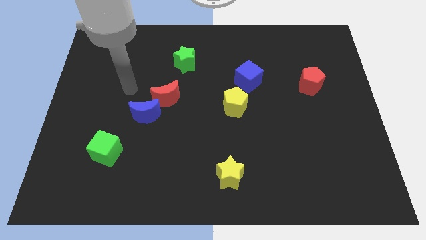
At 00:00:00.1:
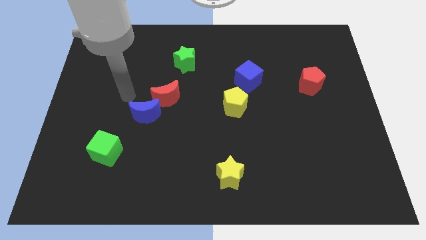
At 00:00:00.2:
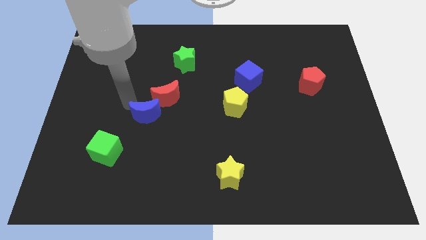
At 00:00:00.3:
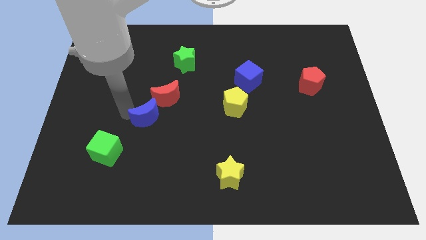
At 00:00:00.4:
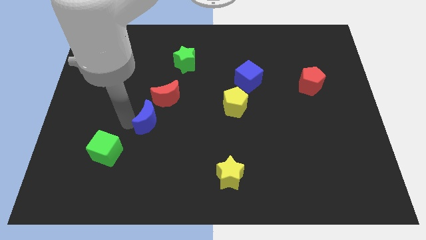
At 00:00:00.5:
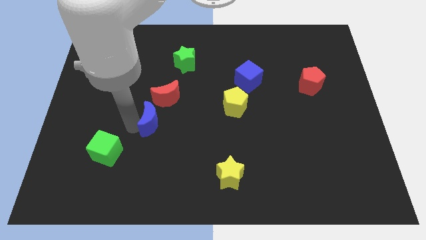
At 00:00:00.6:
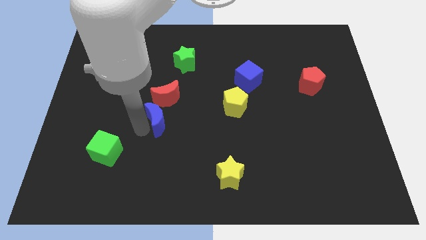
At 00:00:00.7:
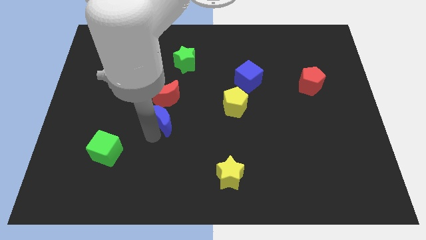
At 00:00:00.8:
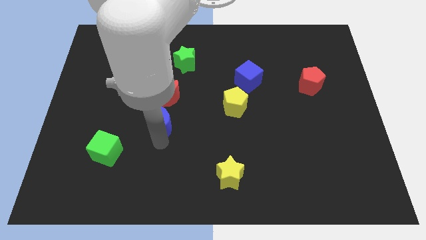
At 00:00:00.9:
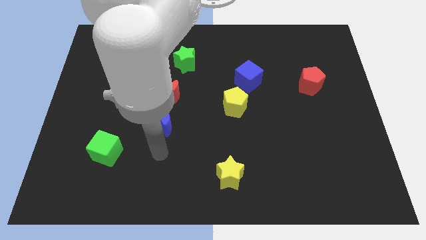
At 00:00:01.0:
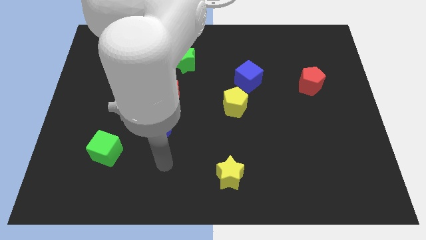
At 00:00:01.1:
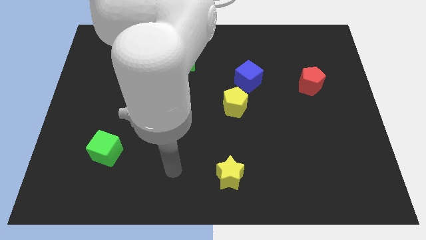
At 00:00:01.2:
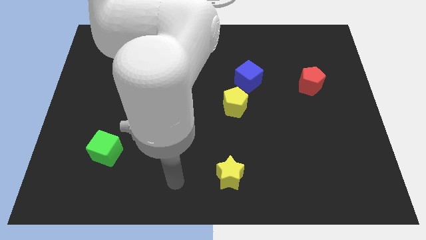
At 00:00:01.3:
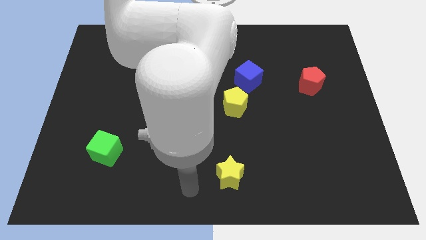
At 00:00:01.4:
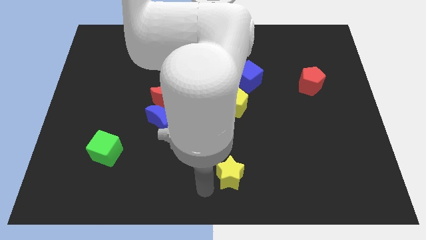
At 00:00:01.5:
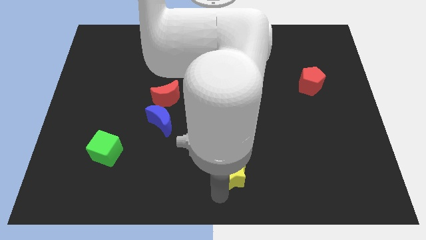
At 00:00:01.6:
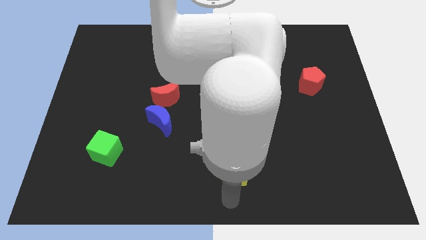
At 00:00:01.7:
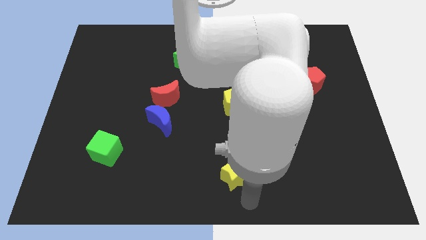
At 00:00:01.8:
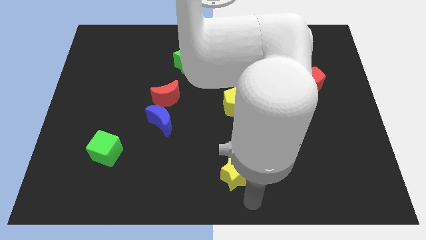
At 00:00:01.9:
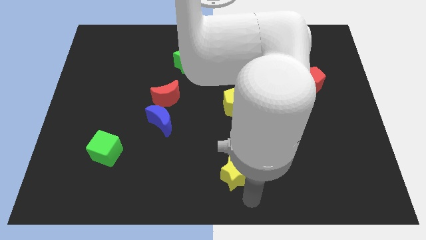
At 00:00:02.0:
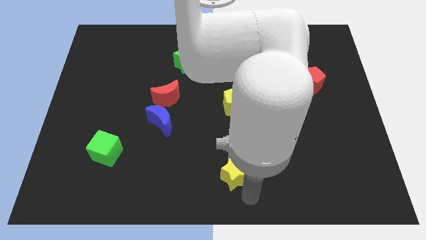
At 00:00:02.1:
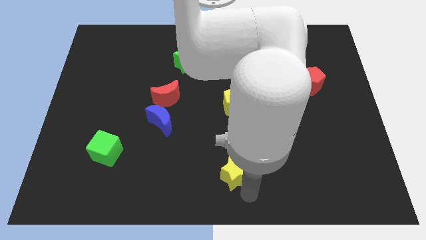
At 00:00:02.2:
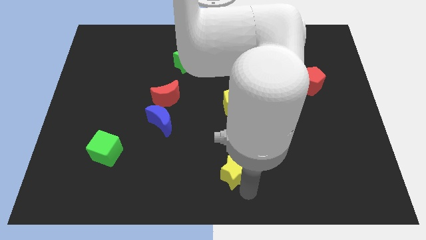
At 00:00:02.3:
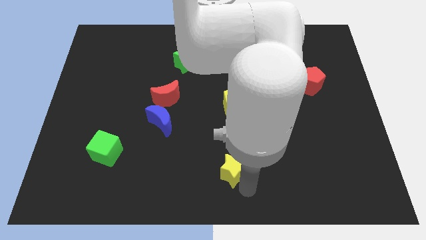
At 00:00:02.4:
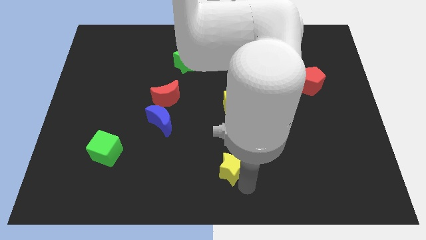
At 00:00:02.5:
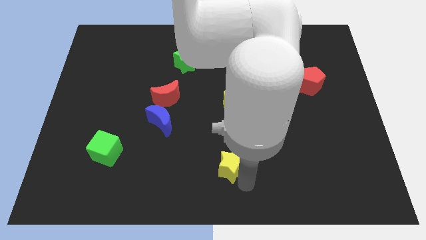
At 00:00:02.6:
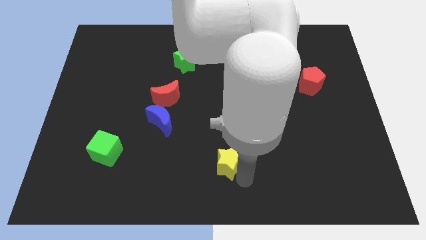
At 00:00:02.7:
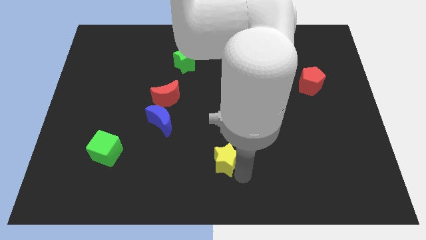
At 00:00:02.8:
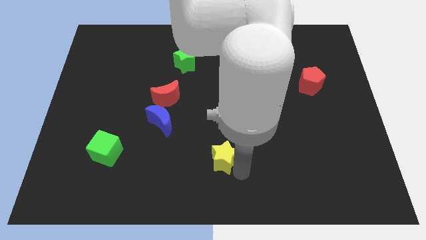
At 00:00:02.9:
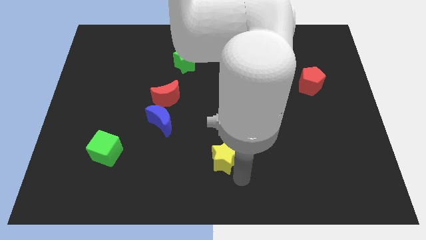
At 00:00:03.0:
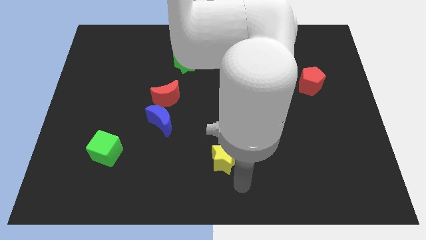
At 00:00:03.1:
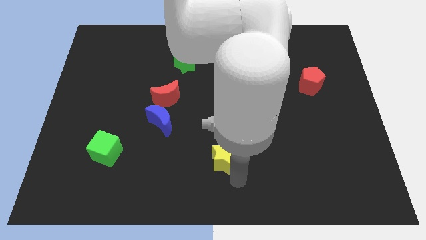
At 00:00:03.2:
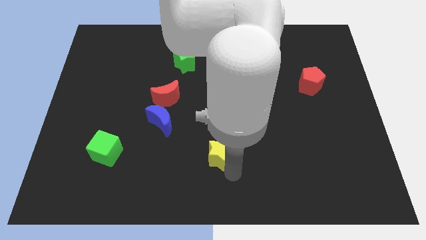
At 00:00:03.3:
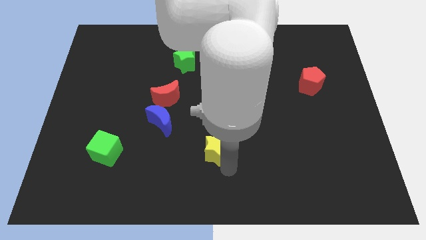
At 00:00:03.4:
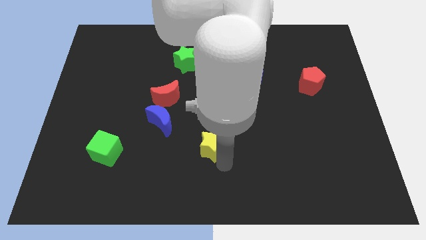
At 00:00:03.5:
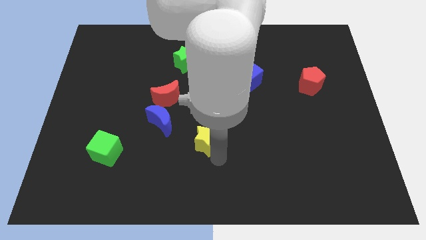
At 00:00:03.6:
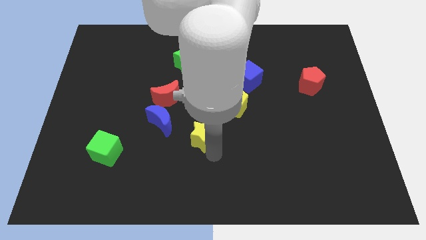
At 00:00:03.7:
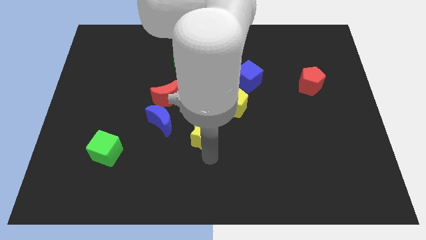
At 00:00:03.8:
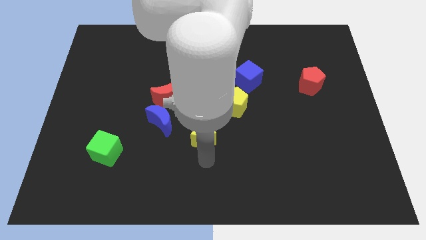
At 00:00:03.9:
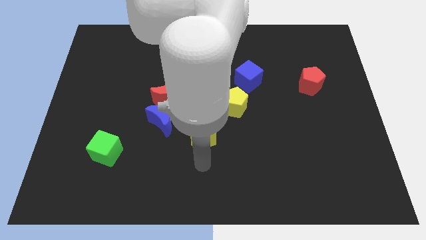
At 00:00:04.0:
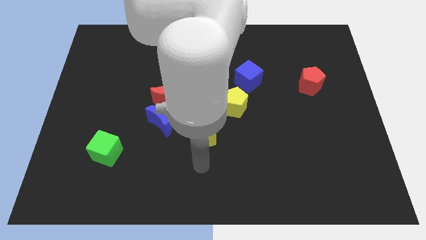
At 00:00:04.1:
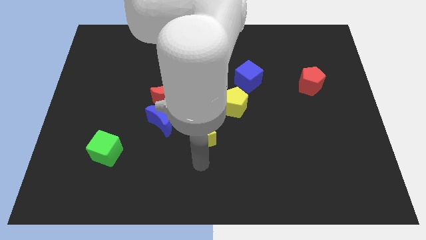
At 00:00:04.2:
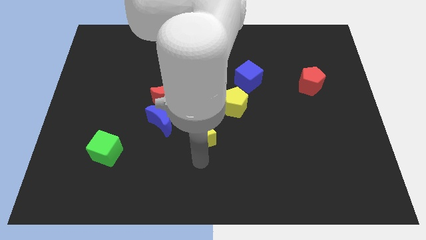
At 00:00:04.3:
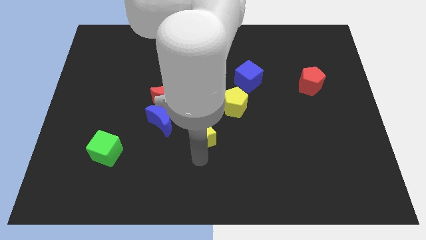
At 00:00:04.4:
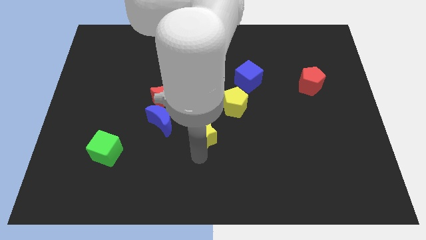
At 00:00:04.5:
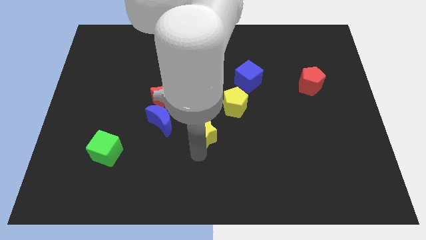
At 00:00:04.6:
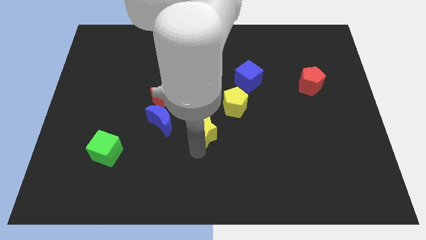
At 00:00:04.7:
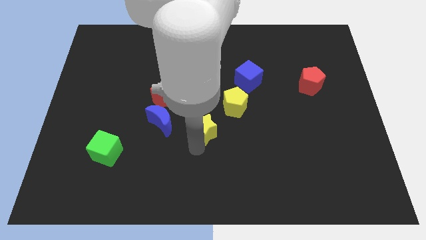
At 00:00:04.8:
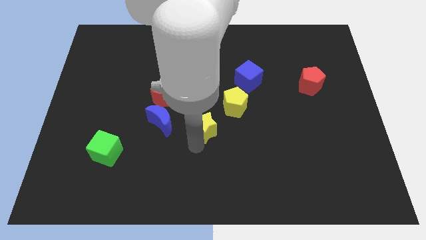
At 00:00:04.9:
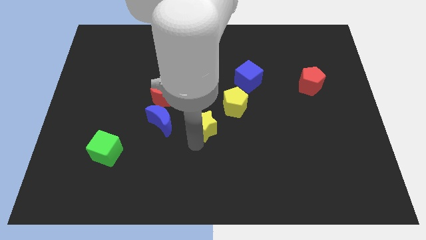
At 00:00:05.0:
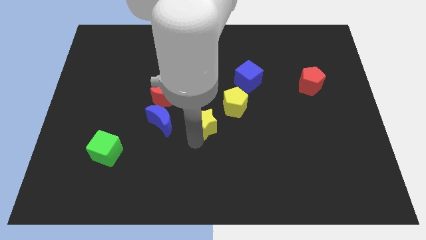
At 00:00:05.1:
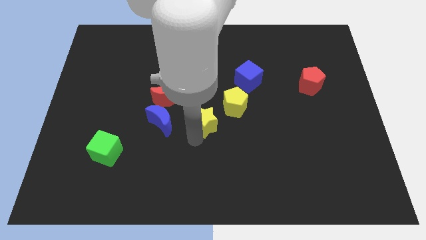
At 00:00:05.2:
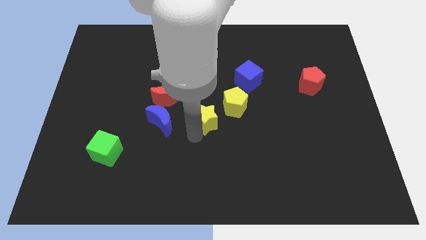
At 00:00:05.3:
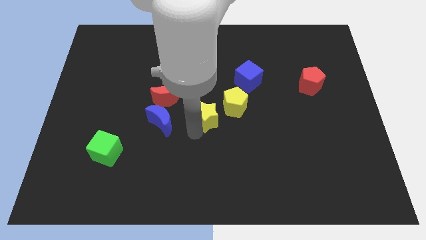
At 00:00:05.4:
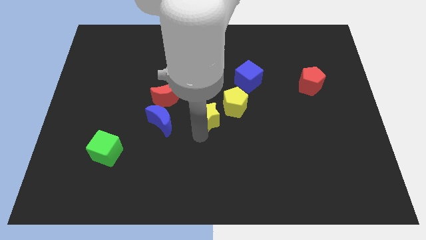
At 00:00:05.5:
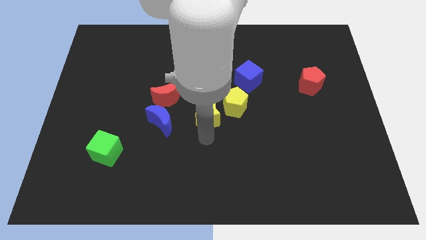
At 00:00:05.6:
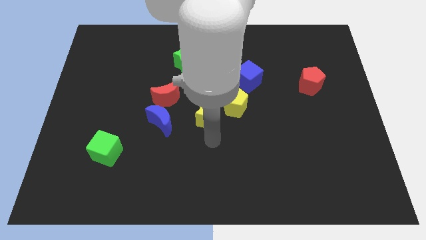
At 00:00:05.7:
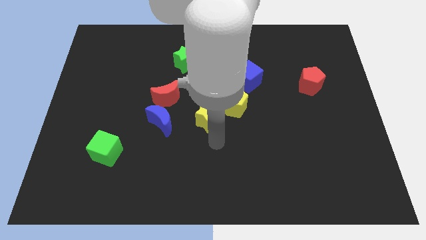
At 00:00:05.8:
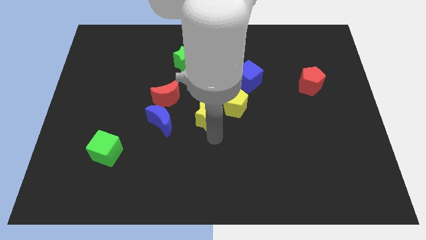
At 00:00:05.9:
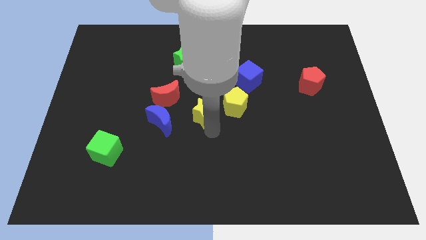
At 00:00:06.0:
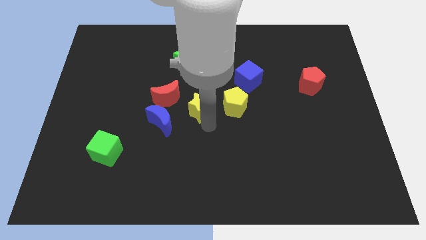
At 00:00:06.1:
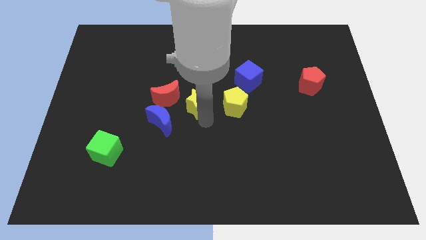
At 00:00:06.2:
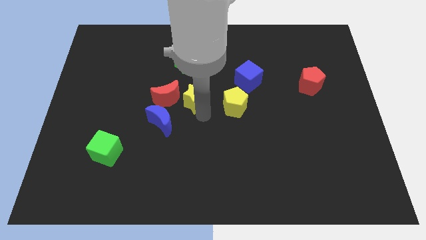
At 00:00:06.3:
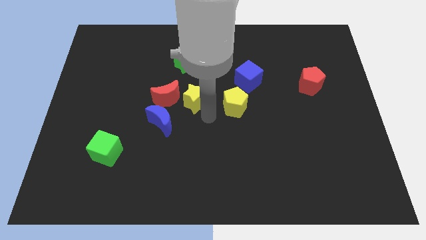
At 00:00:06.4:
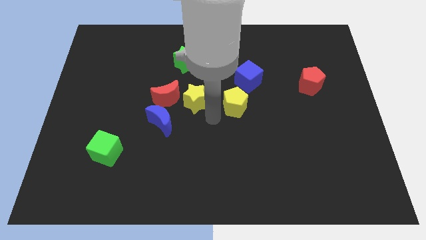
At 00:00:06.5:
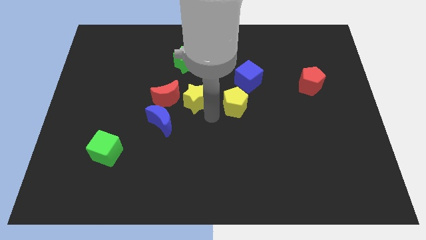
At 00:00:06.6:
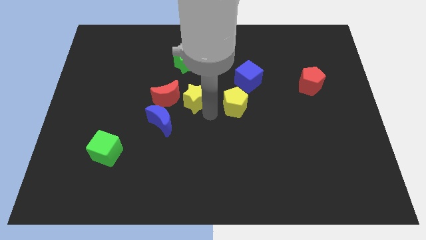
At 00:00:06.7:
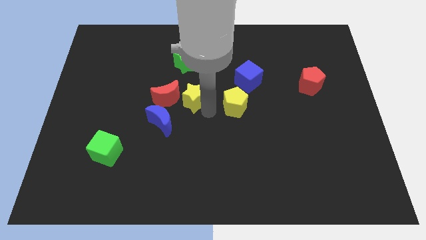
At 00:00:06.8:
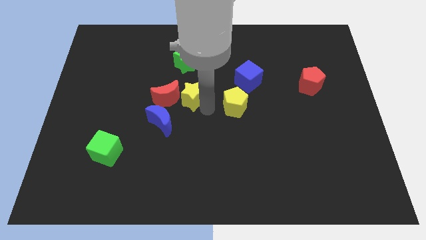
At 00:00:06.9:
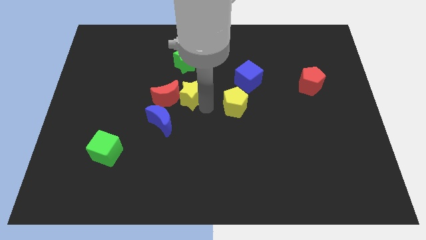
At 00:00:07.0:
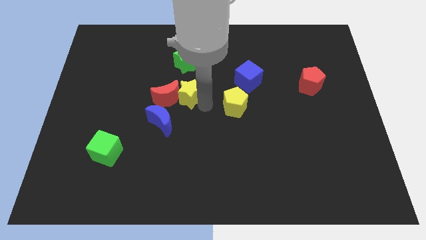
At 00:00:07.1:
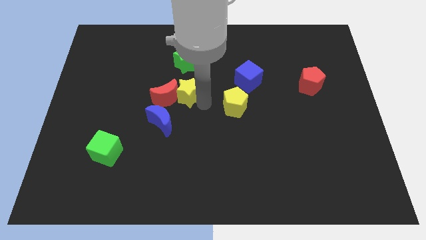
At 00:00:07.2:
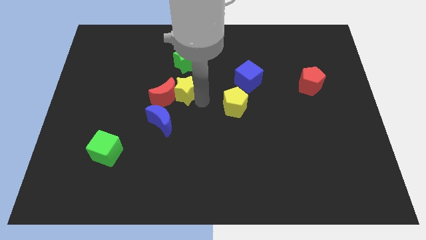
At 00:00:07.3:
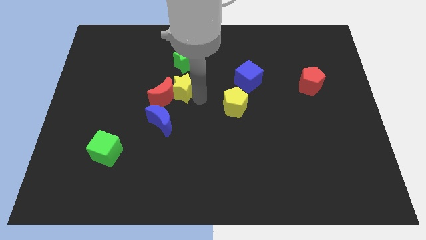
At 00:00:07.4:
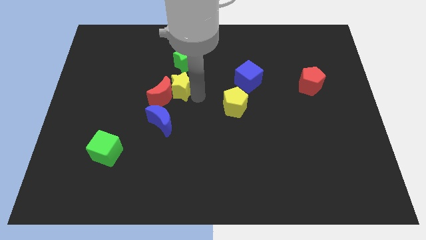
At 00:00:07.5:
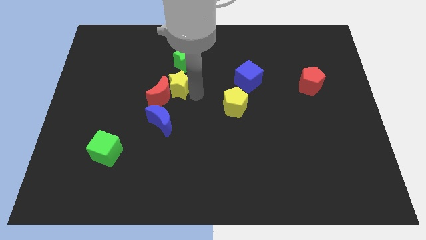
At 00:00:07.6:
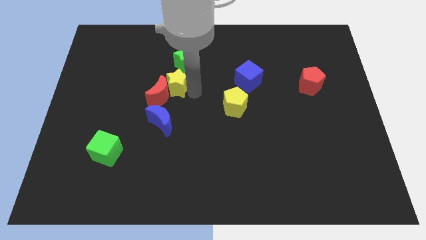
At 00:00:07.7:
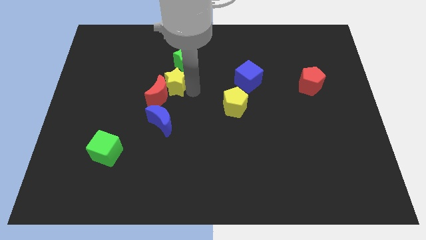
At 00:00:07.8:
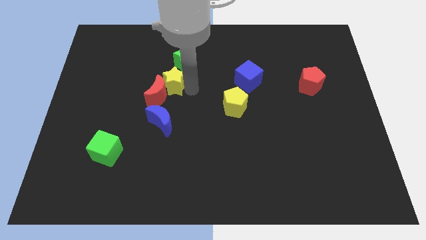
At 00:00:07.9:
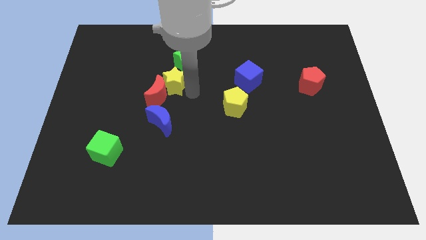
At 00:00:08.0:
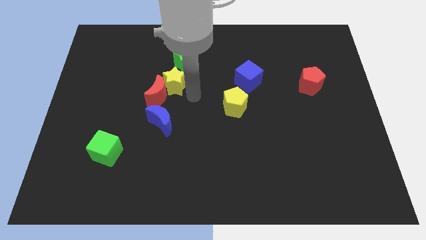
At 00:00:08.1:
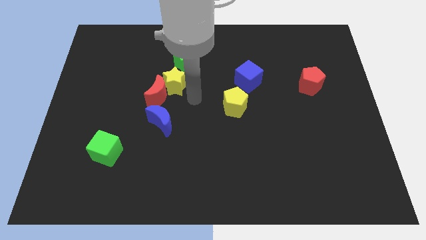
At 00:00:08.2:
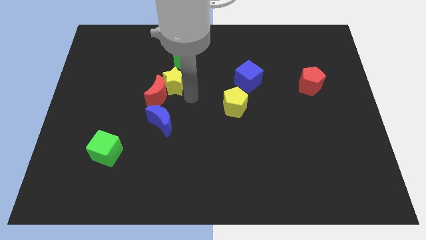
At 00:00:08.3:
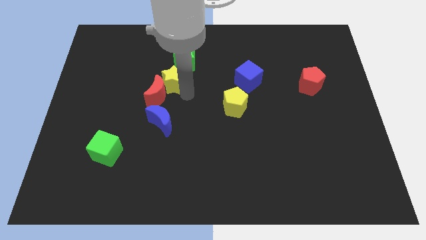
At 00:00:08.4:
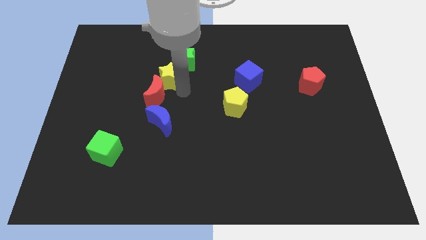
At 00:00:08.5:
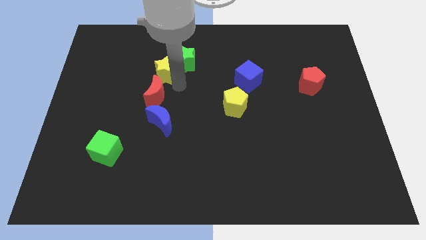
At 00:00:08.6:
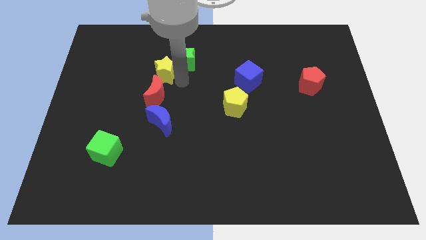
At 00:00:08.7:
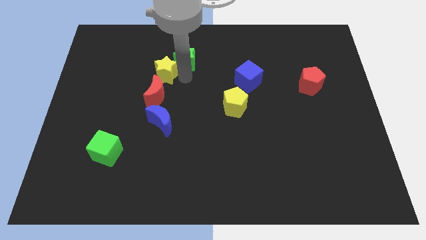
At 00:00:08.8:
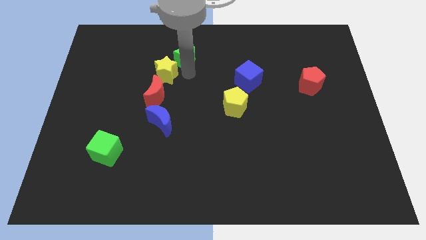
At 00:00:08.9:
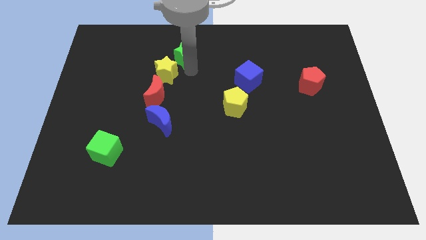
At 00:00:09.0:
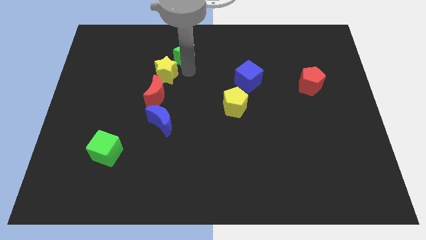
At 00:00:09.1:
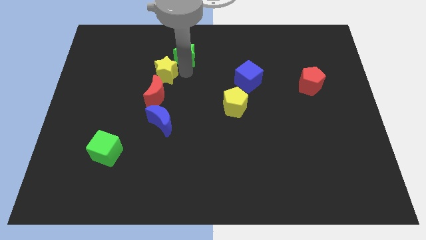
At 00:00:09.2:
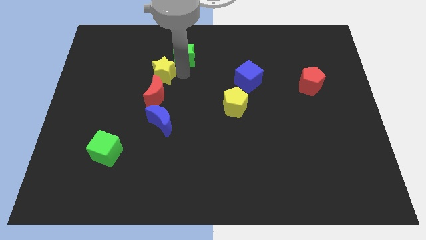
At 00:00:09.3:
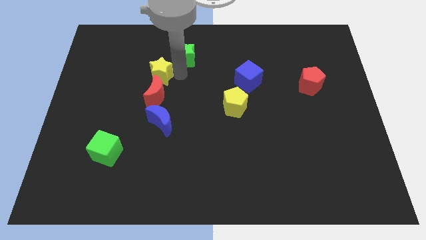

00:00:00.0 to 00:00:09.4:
put the yellow star to the top left of the red moon
